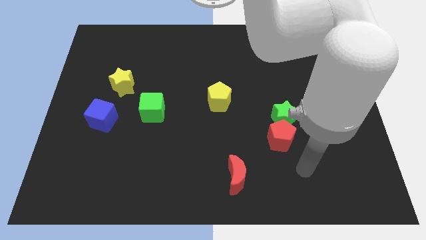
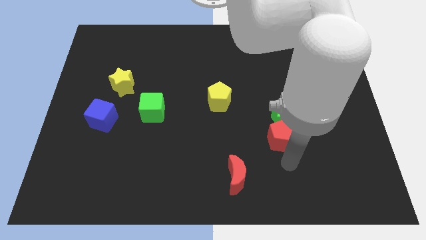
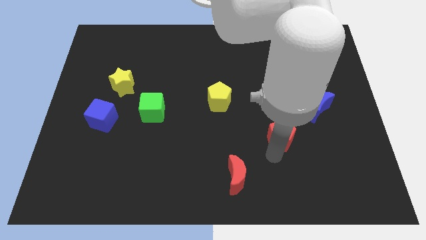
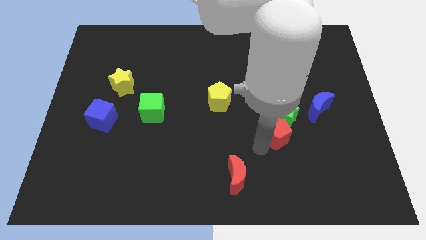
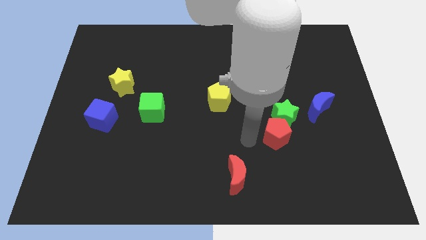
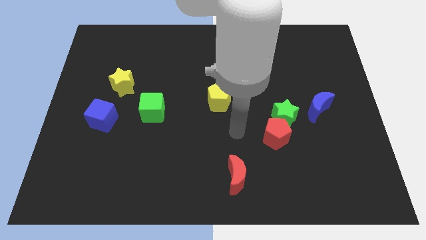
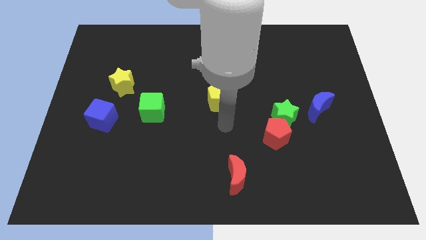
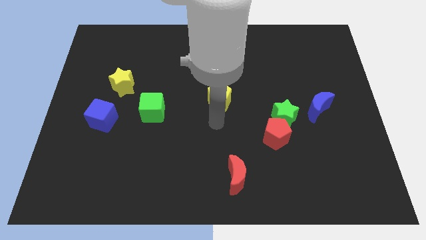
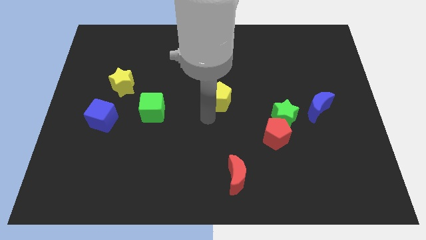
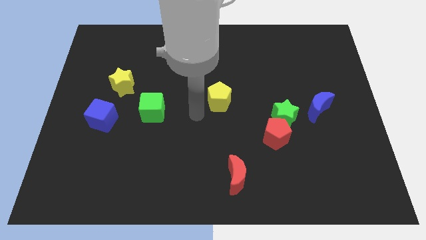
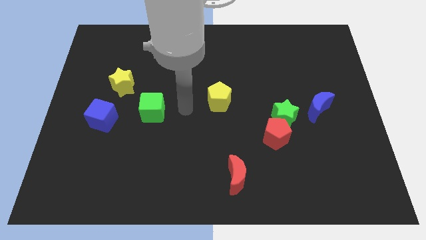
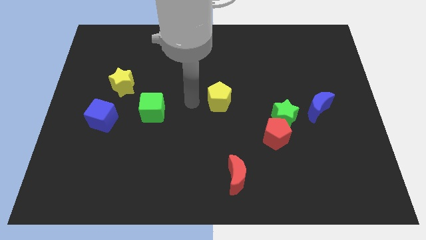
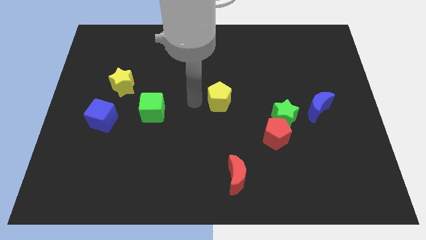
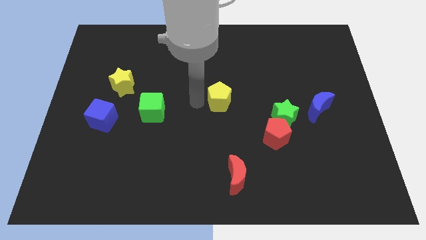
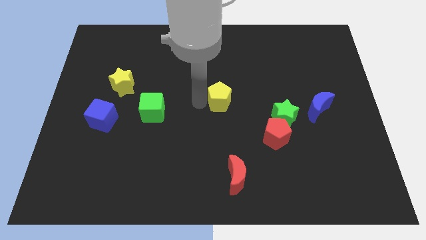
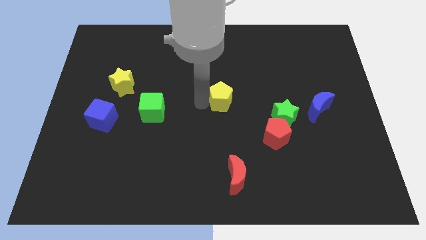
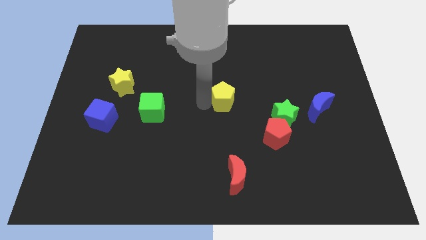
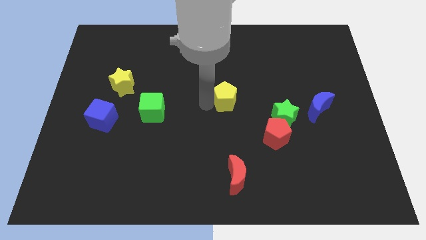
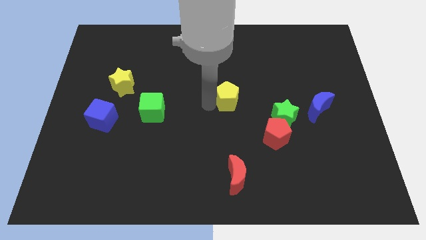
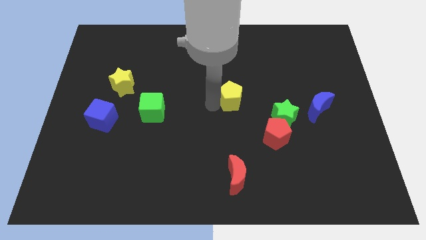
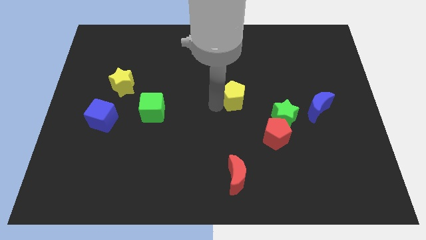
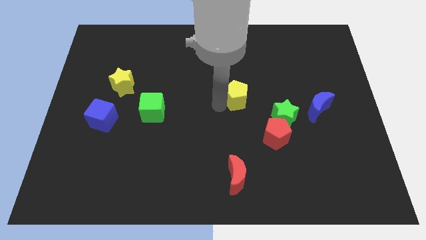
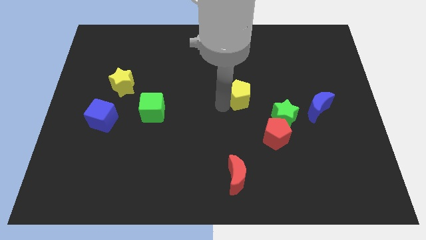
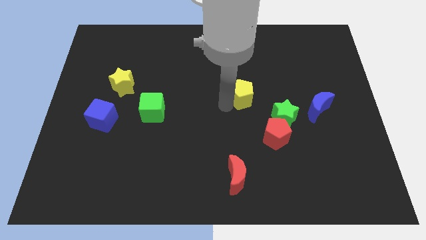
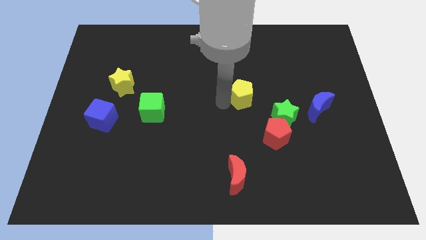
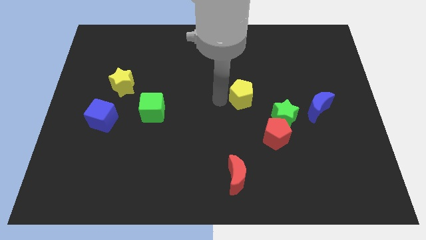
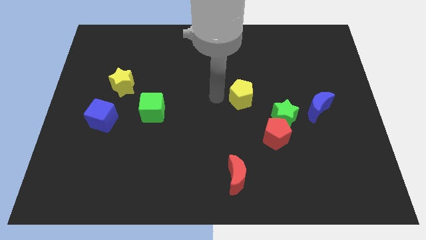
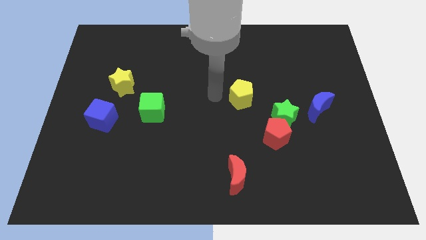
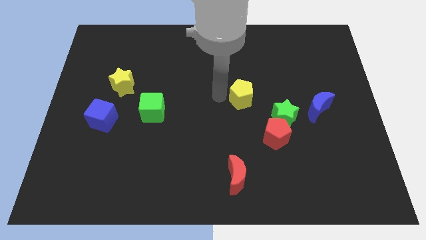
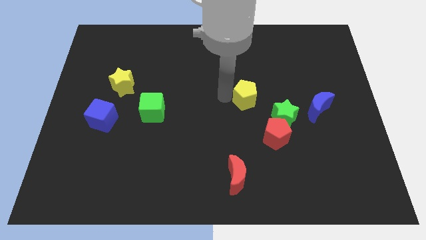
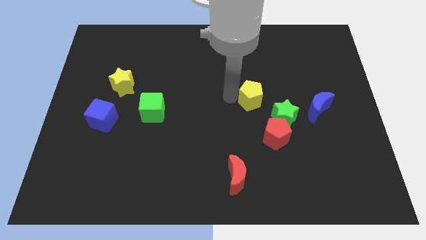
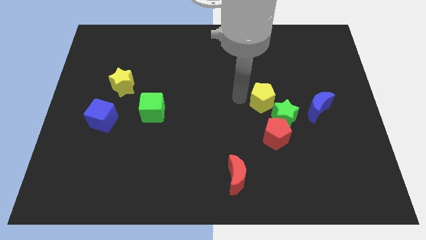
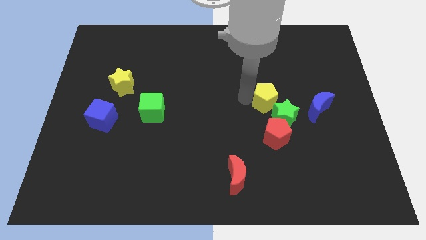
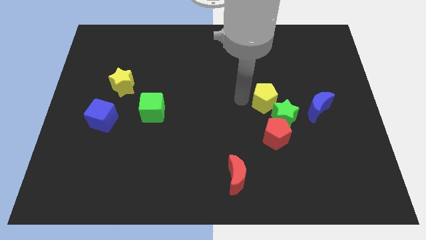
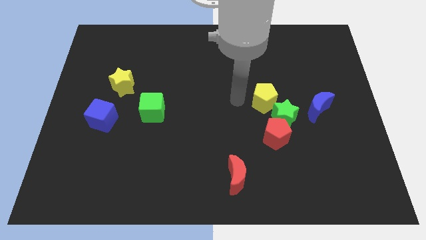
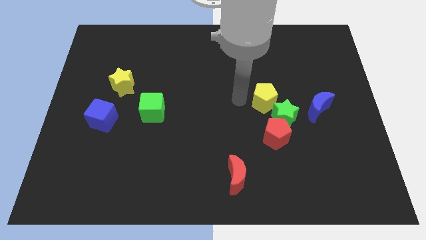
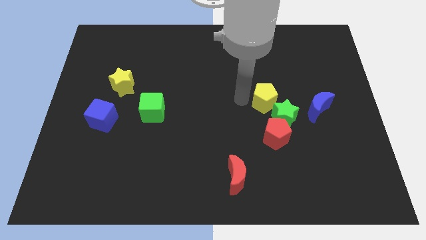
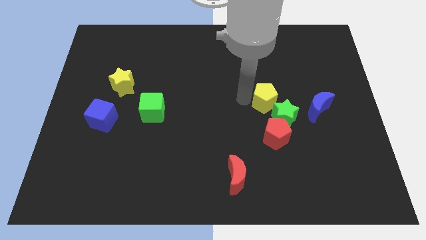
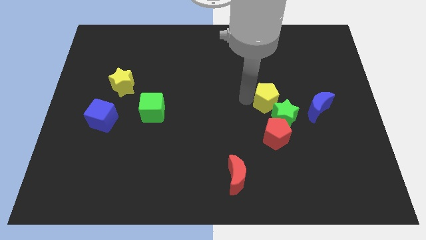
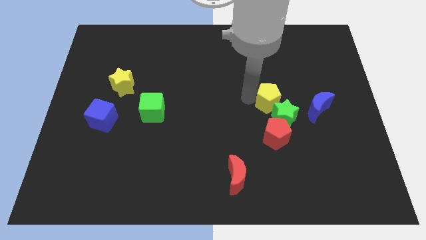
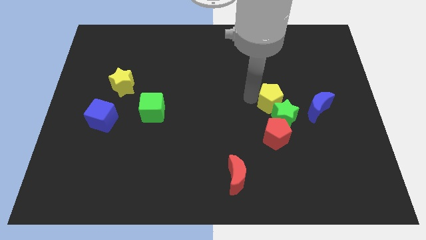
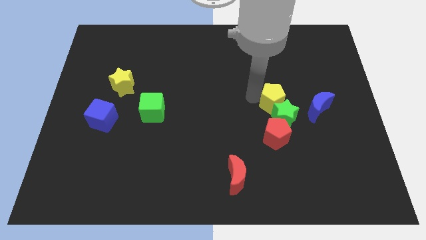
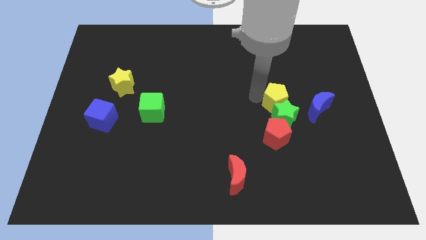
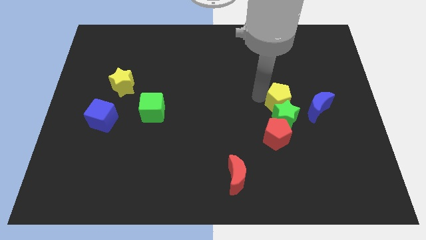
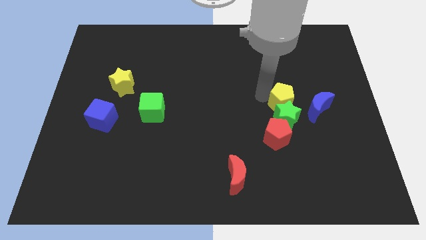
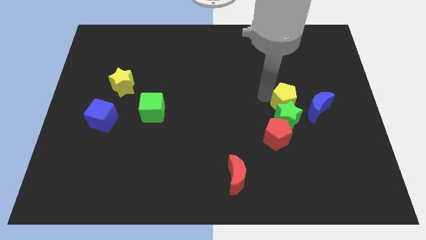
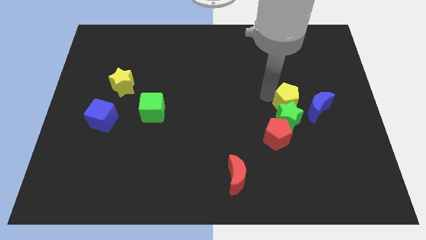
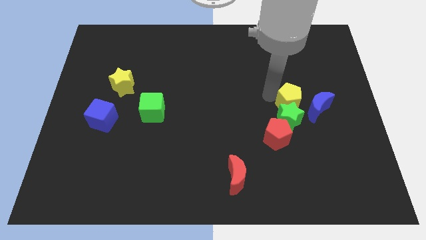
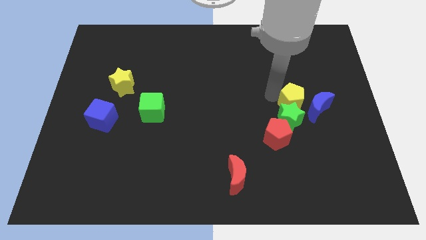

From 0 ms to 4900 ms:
slide the yellow pentagon close to the blue moon

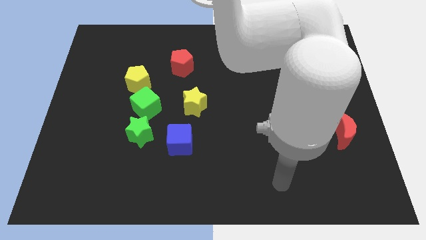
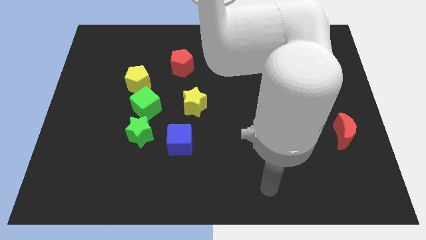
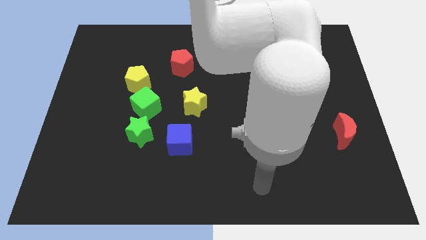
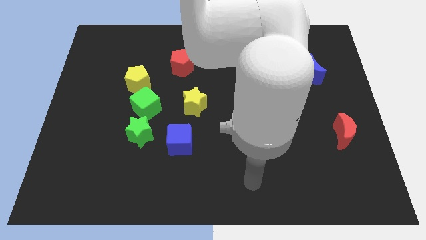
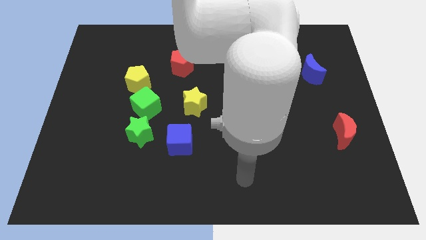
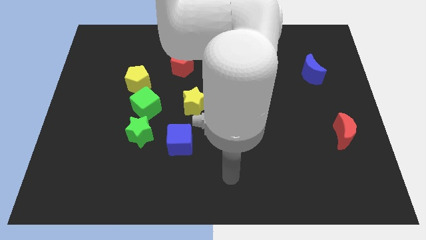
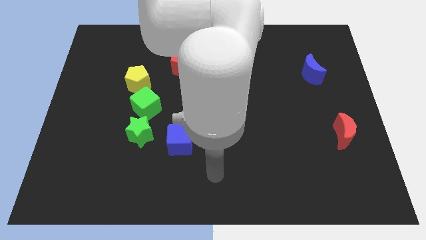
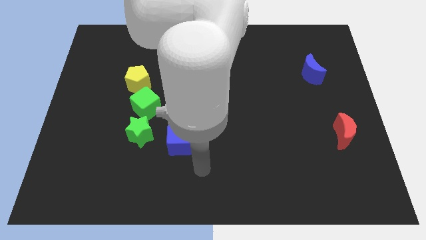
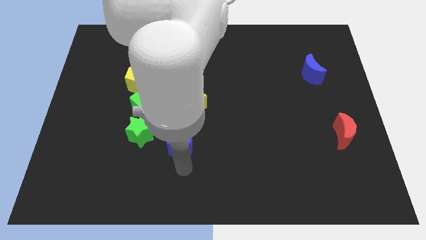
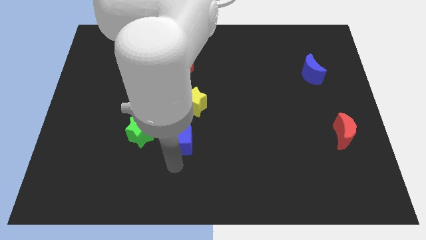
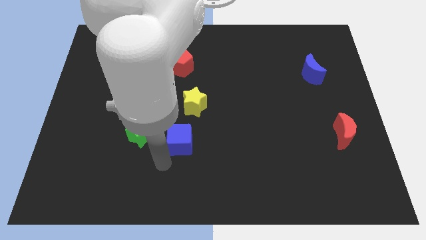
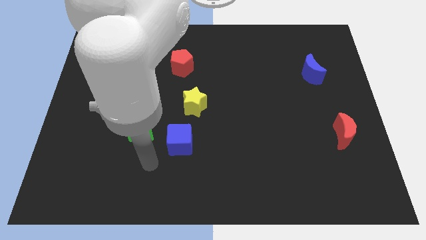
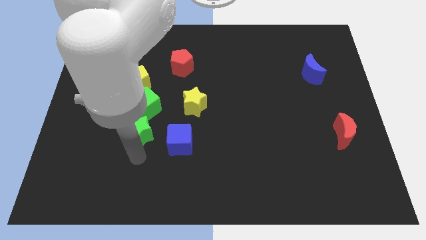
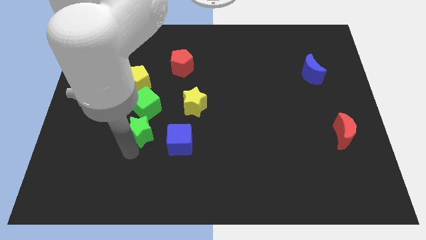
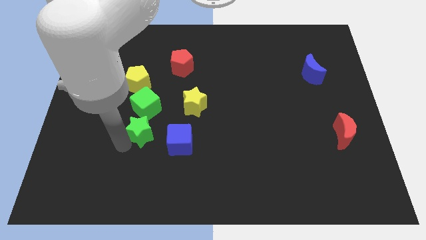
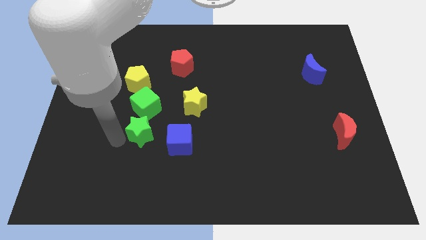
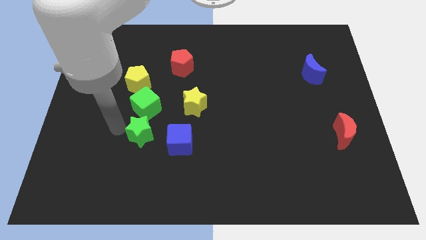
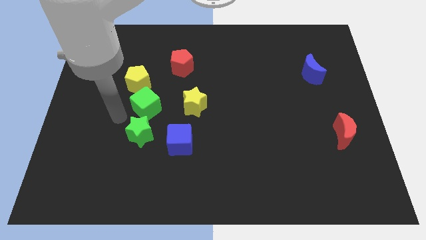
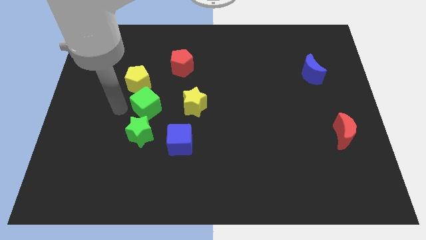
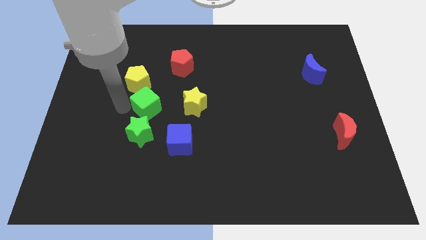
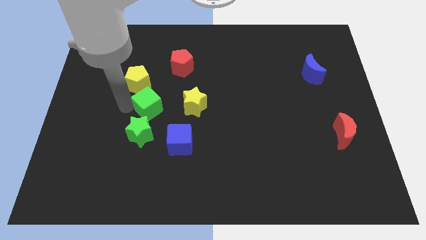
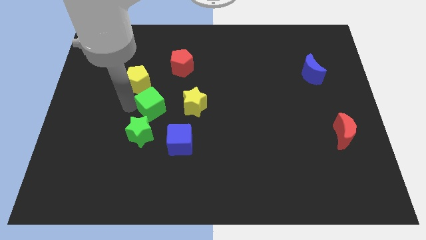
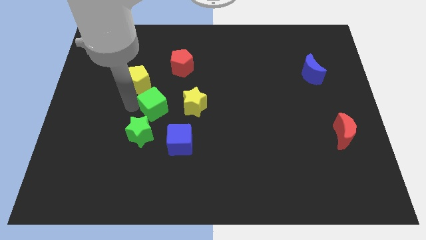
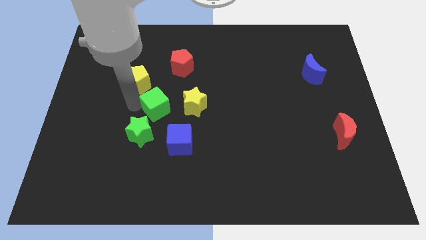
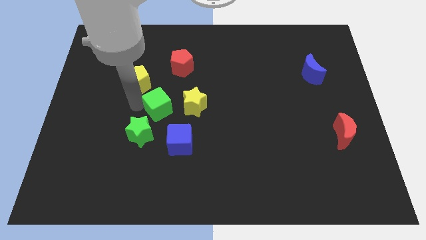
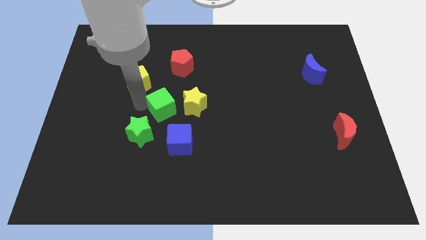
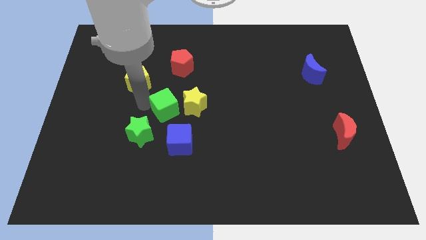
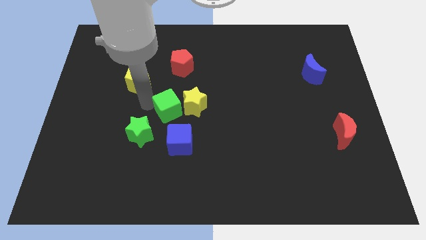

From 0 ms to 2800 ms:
move the green cube next to the yellow star
